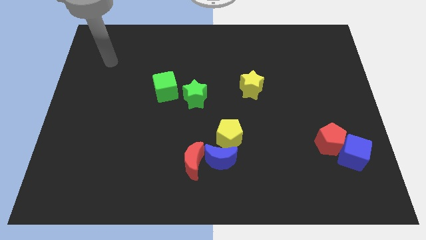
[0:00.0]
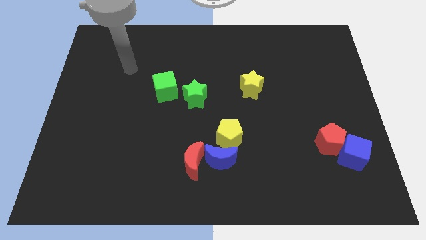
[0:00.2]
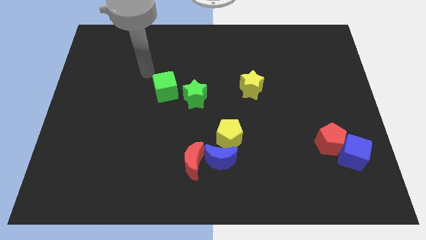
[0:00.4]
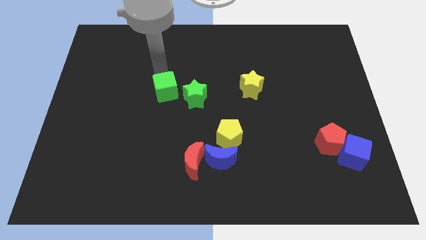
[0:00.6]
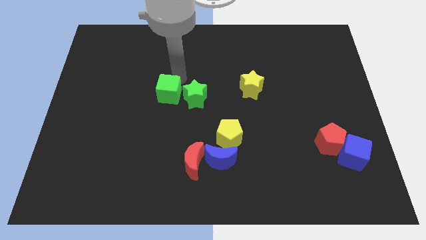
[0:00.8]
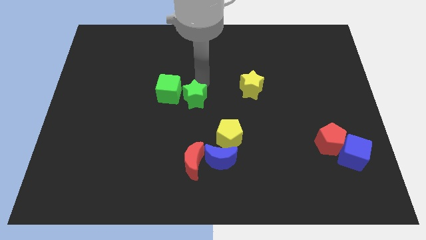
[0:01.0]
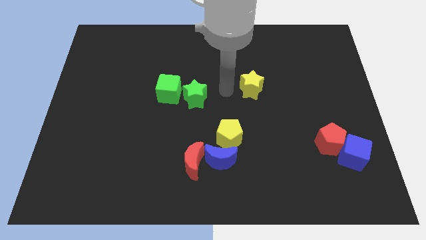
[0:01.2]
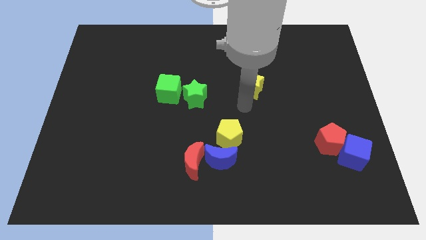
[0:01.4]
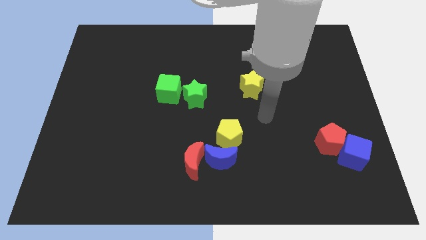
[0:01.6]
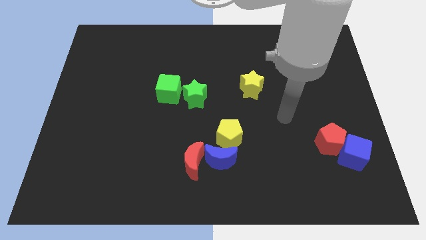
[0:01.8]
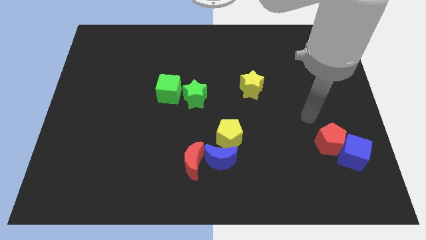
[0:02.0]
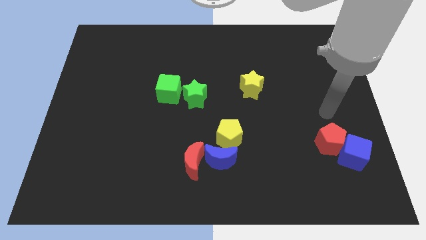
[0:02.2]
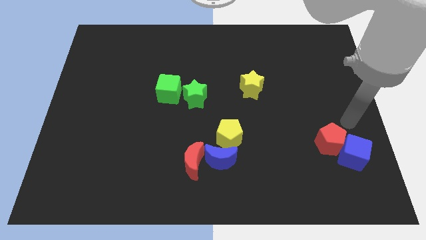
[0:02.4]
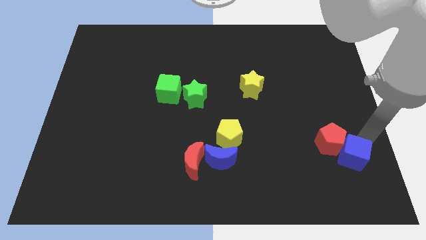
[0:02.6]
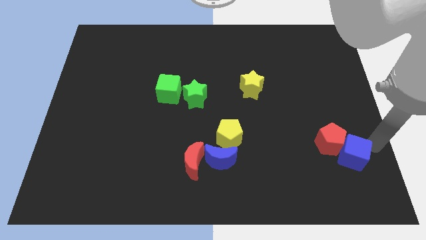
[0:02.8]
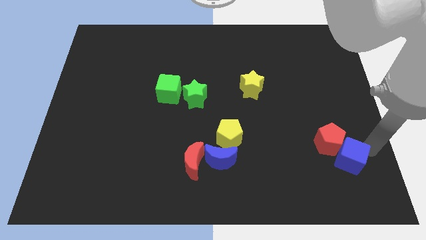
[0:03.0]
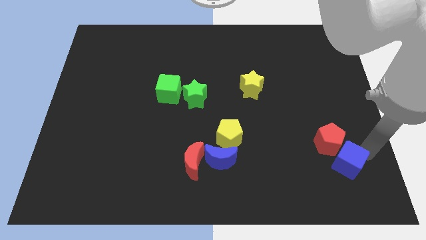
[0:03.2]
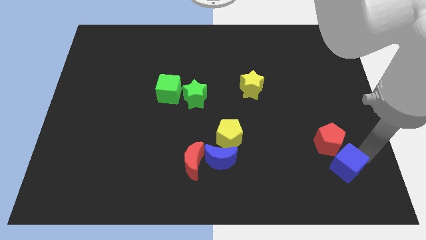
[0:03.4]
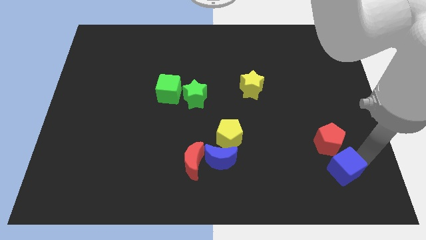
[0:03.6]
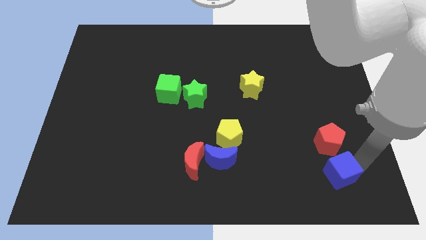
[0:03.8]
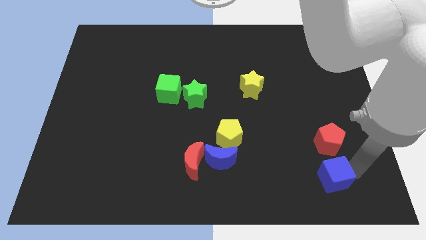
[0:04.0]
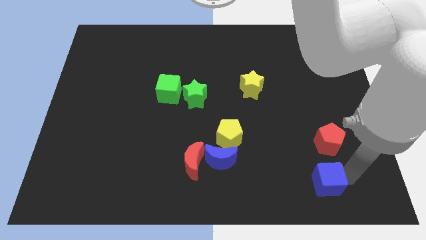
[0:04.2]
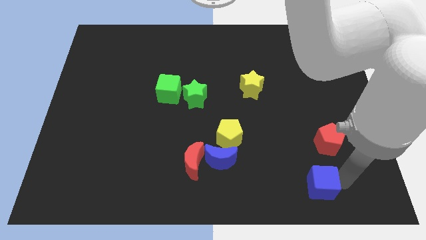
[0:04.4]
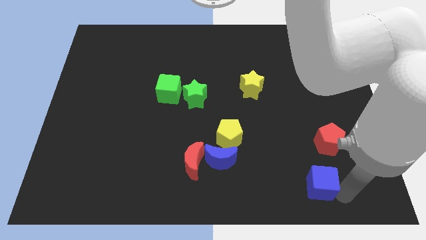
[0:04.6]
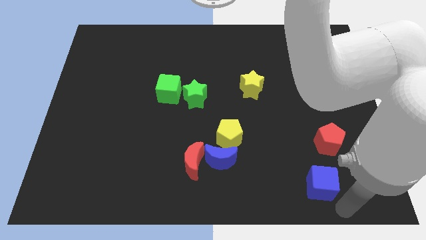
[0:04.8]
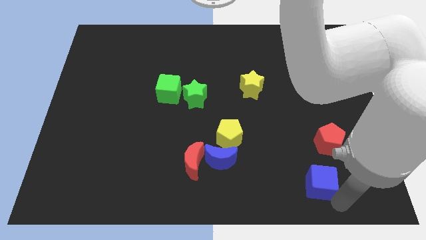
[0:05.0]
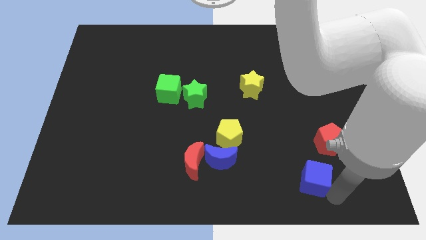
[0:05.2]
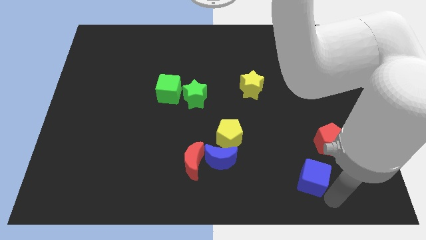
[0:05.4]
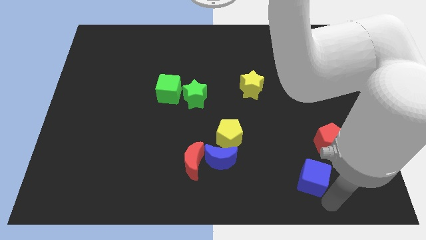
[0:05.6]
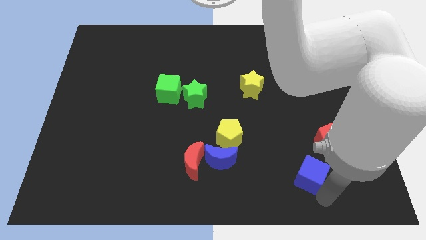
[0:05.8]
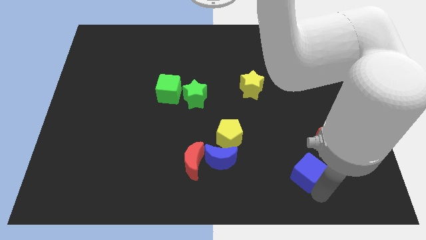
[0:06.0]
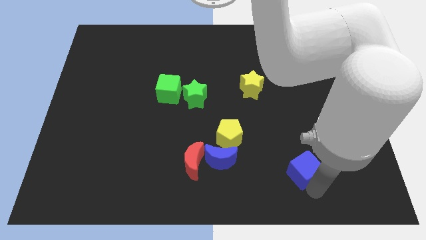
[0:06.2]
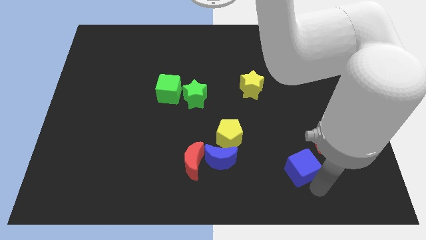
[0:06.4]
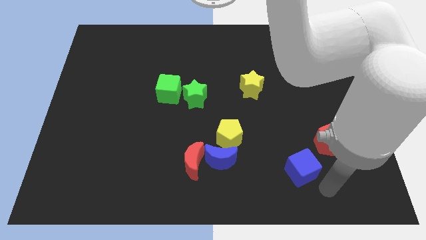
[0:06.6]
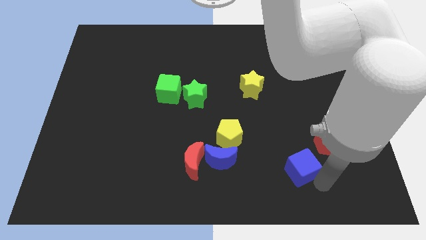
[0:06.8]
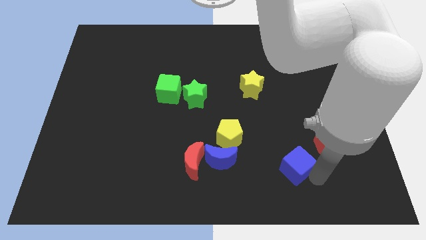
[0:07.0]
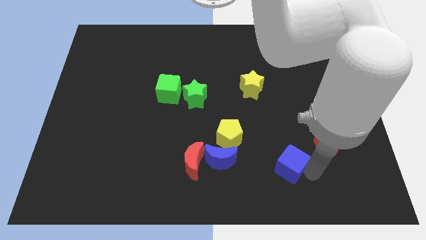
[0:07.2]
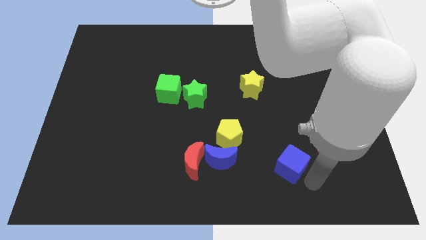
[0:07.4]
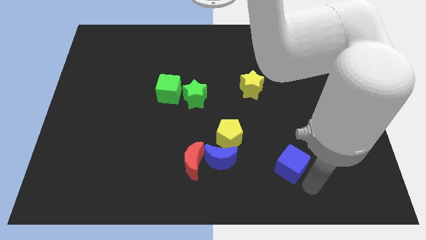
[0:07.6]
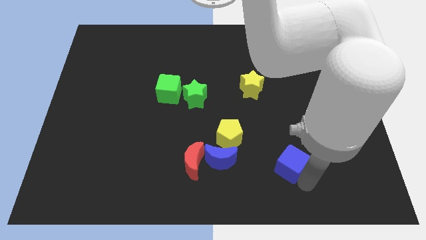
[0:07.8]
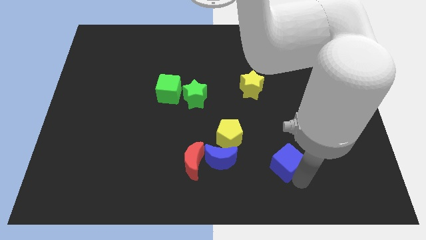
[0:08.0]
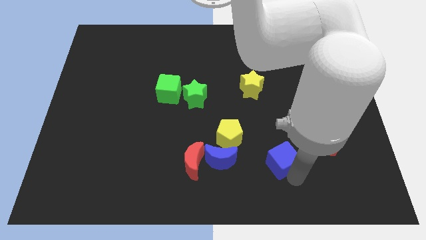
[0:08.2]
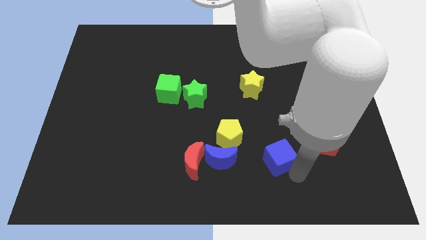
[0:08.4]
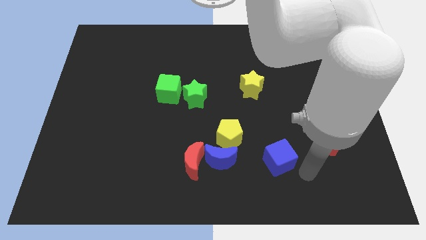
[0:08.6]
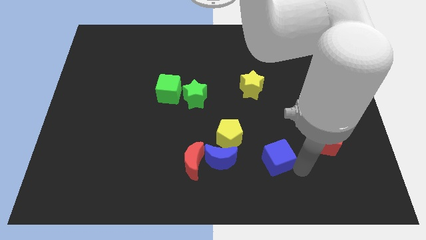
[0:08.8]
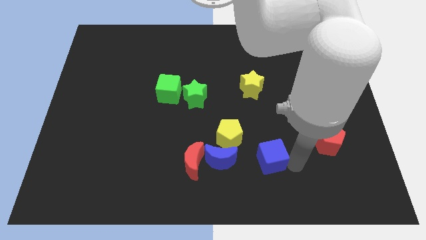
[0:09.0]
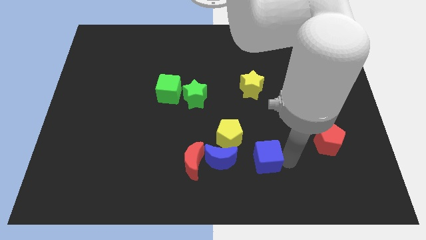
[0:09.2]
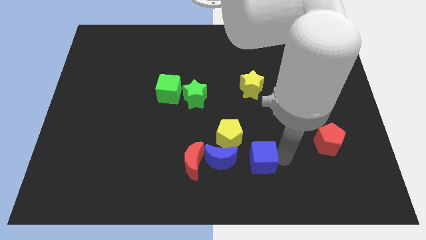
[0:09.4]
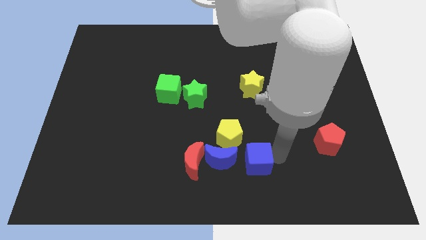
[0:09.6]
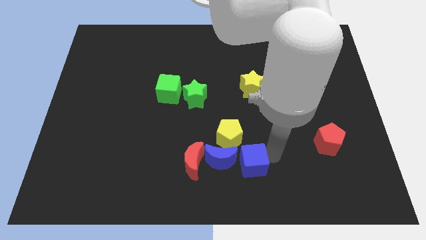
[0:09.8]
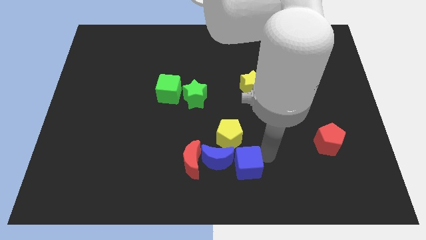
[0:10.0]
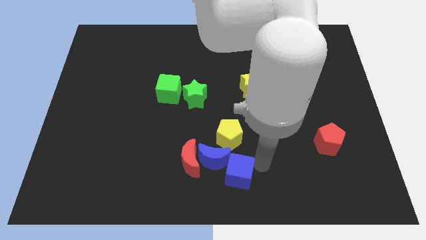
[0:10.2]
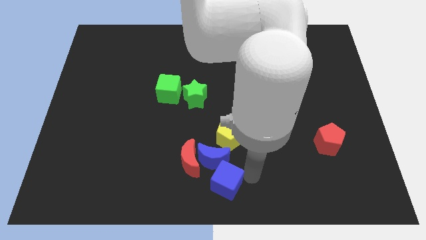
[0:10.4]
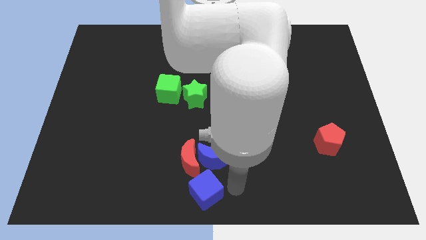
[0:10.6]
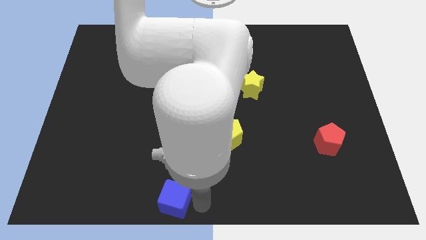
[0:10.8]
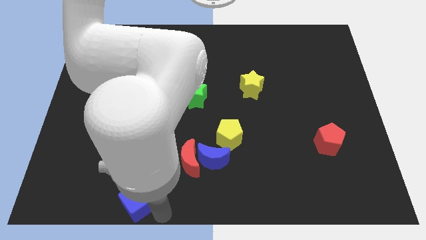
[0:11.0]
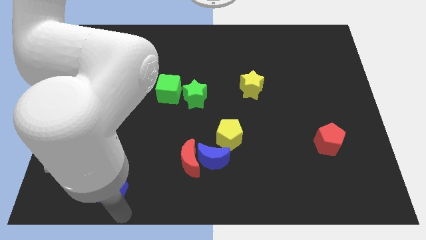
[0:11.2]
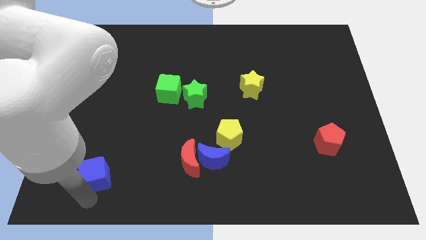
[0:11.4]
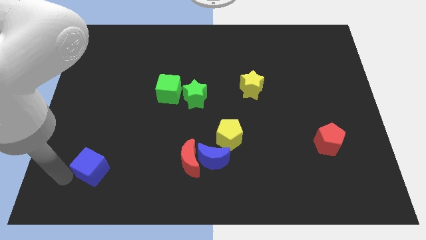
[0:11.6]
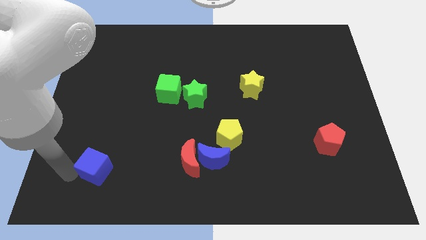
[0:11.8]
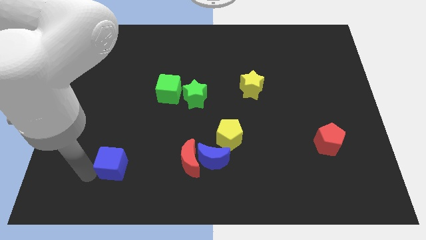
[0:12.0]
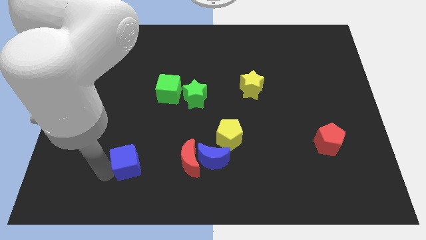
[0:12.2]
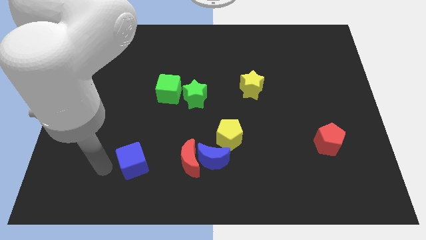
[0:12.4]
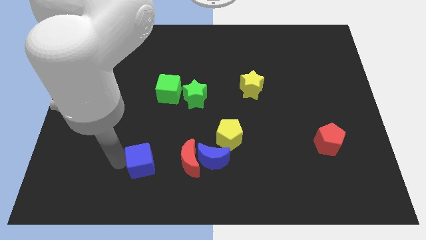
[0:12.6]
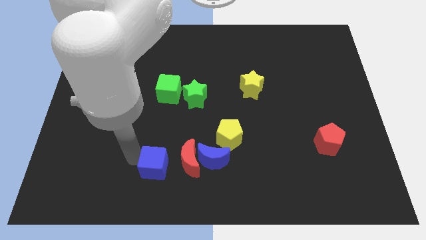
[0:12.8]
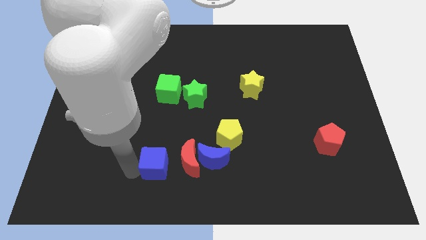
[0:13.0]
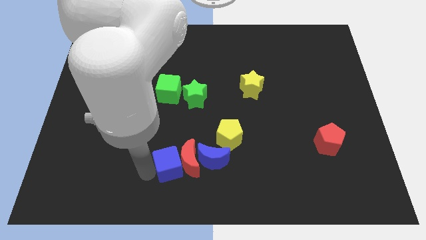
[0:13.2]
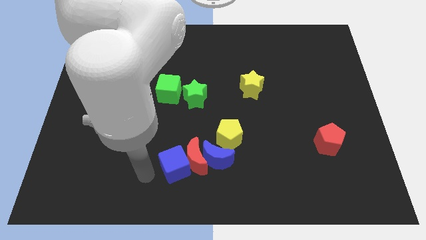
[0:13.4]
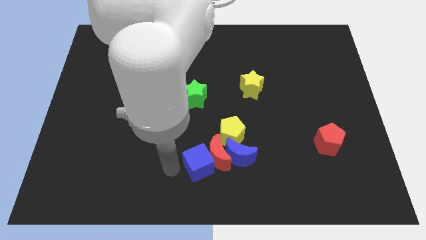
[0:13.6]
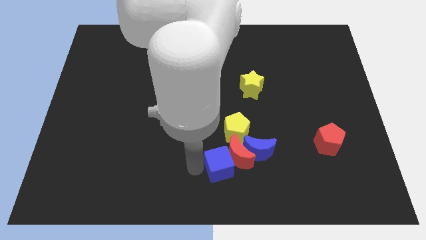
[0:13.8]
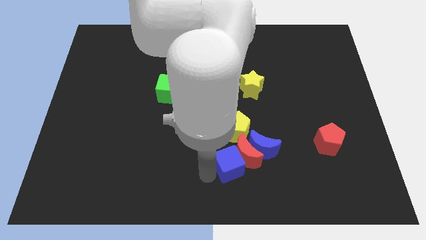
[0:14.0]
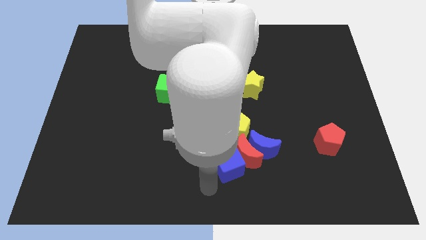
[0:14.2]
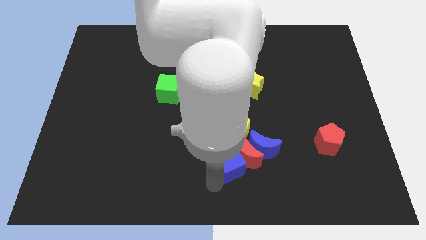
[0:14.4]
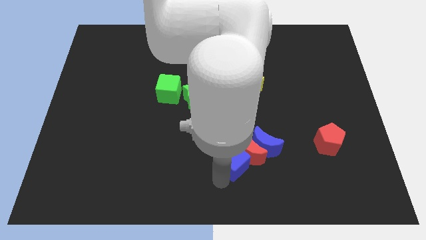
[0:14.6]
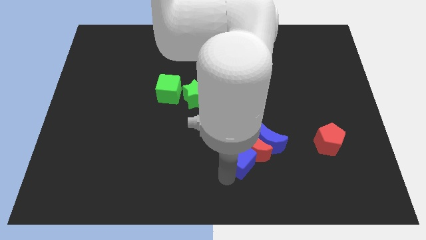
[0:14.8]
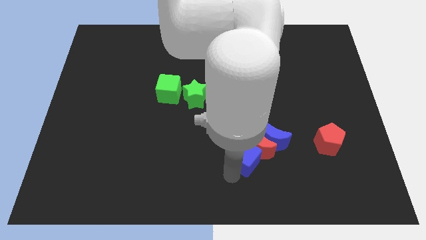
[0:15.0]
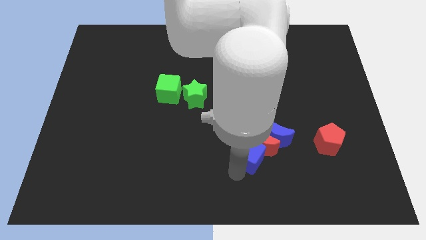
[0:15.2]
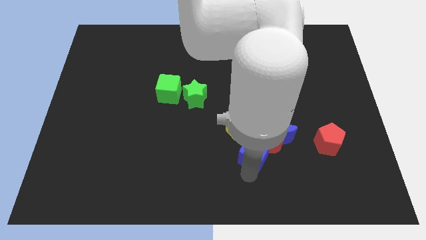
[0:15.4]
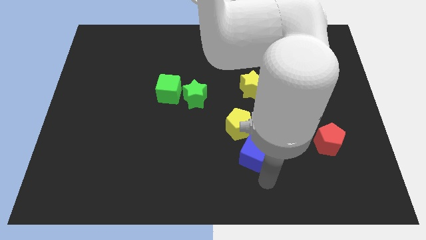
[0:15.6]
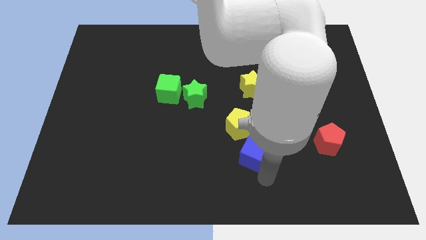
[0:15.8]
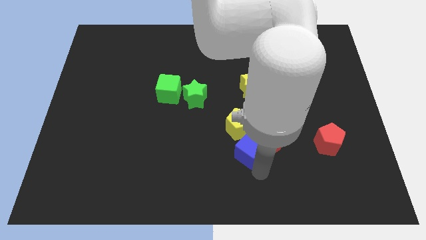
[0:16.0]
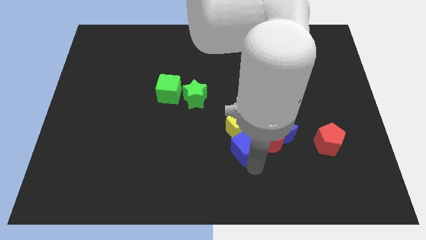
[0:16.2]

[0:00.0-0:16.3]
push the blue cube towards the yellow pentagon
